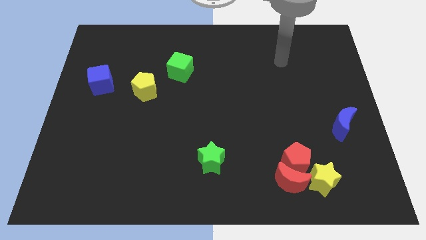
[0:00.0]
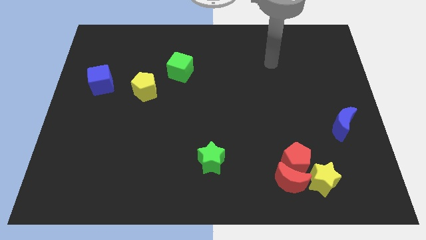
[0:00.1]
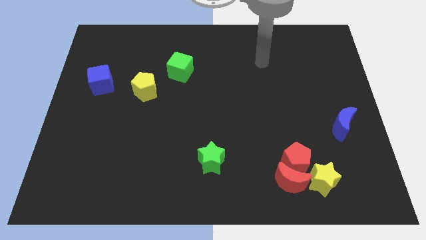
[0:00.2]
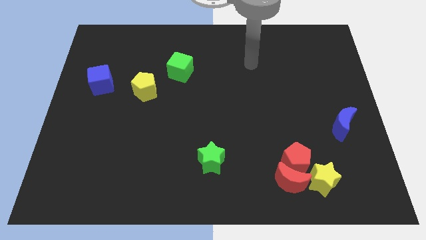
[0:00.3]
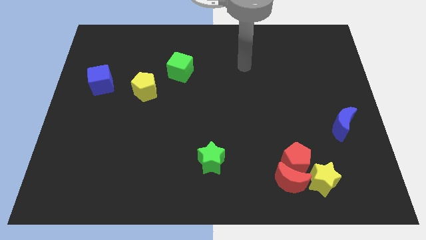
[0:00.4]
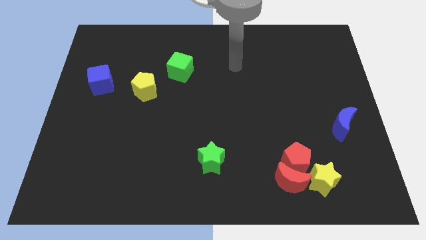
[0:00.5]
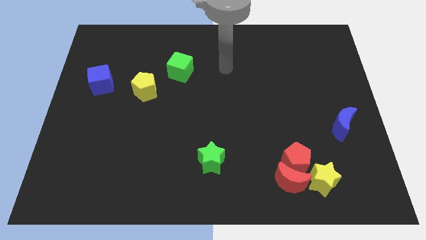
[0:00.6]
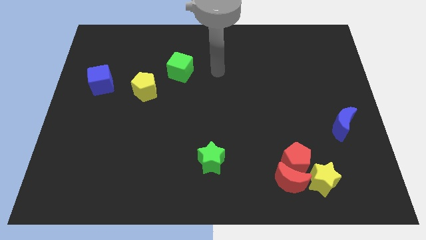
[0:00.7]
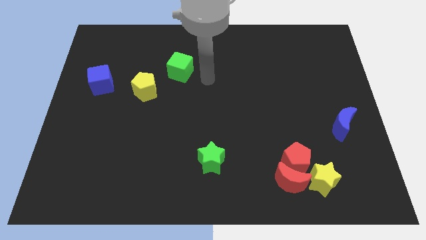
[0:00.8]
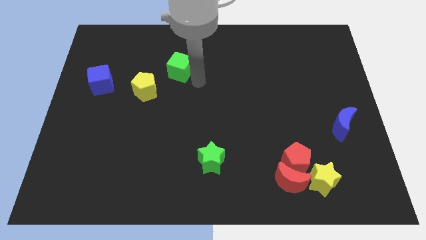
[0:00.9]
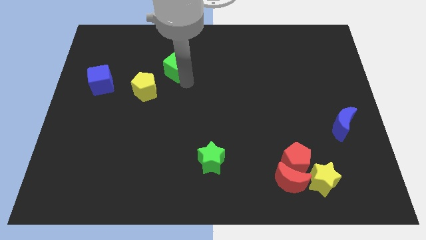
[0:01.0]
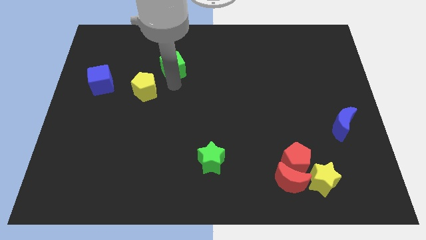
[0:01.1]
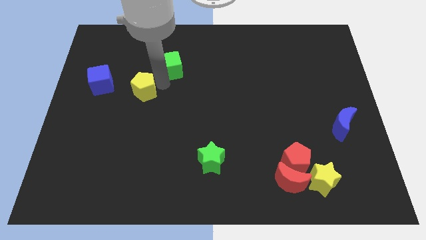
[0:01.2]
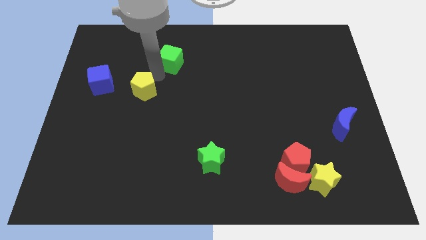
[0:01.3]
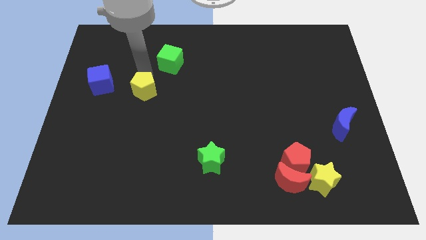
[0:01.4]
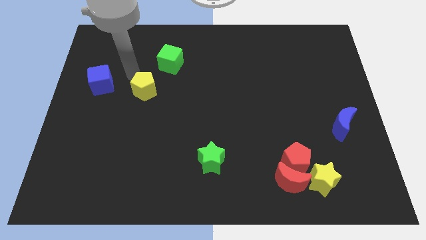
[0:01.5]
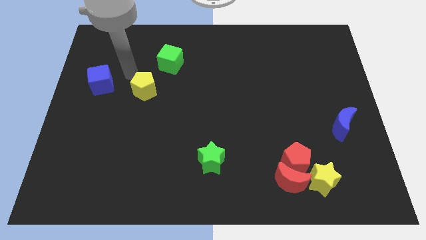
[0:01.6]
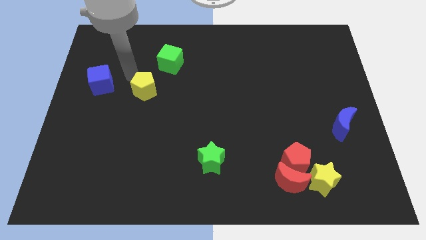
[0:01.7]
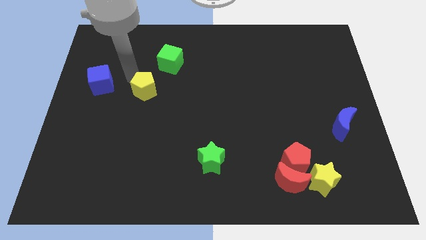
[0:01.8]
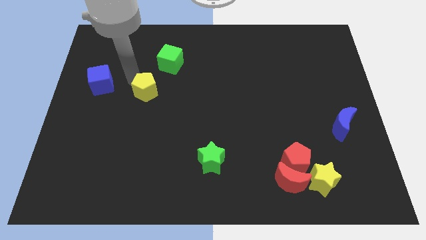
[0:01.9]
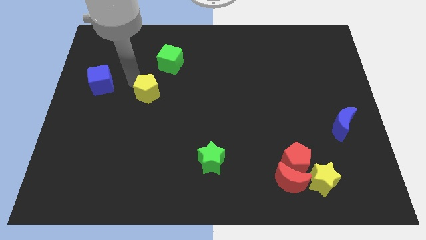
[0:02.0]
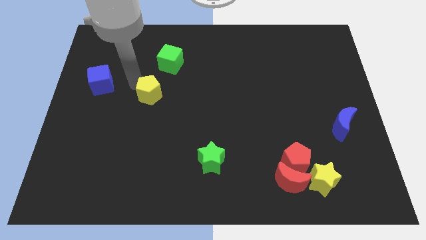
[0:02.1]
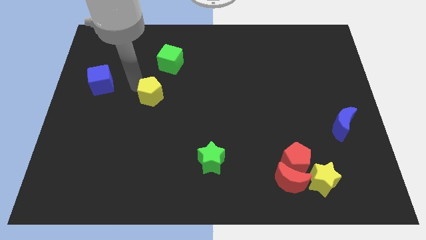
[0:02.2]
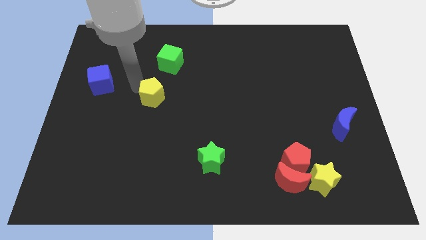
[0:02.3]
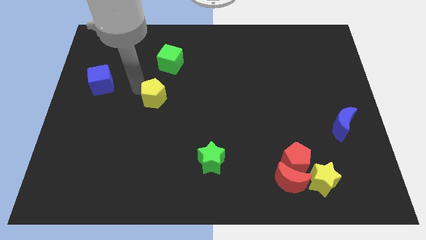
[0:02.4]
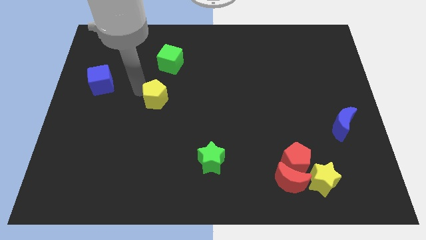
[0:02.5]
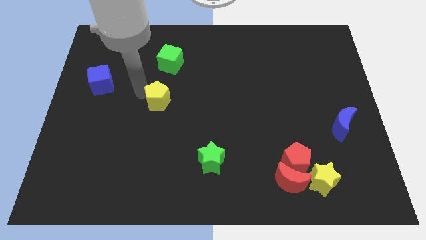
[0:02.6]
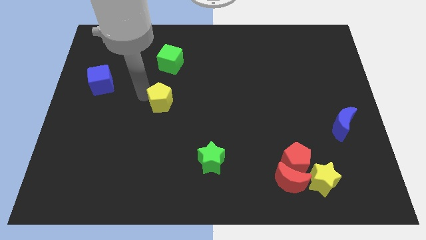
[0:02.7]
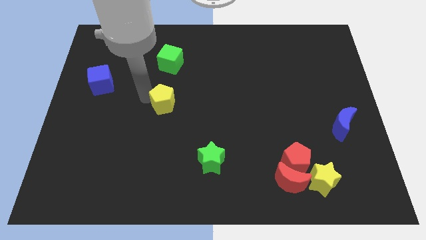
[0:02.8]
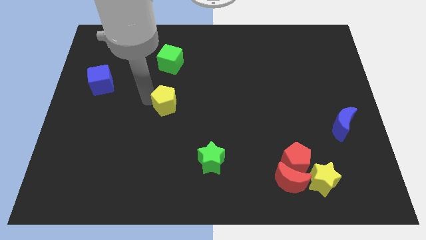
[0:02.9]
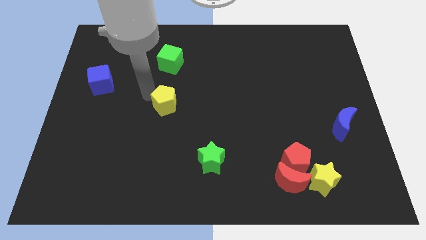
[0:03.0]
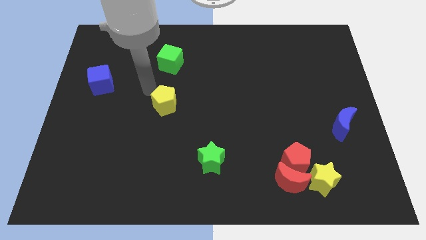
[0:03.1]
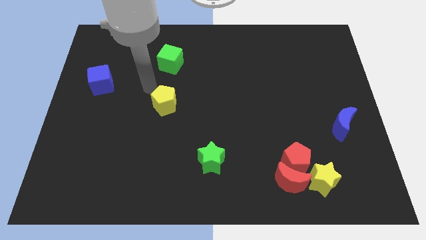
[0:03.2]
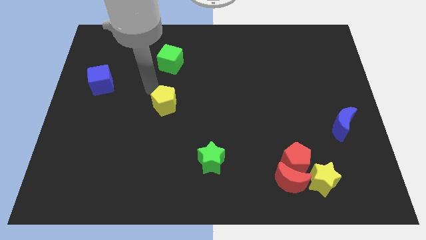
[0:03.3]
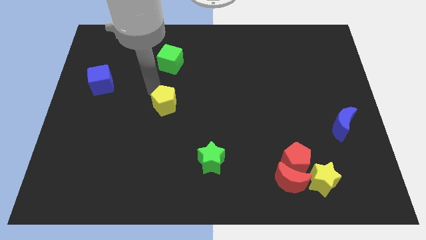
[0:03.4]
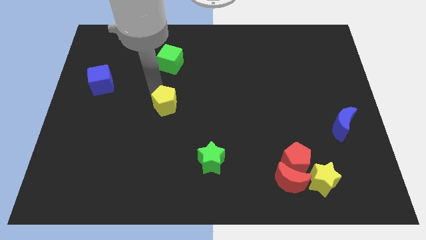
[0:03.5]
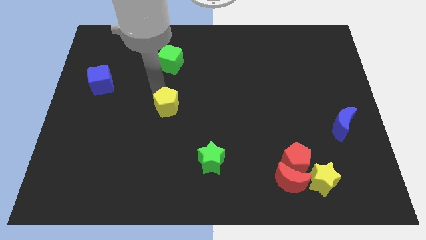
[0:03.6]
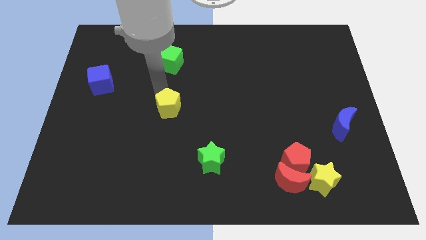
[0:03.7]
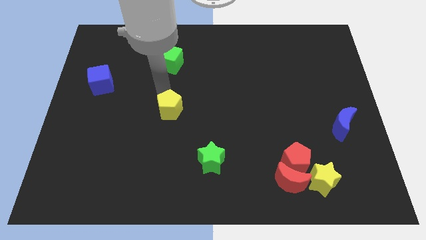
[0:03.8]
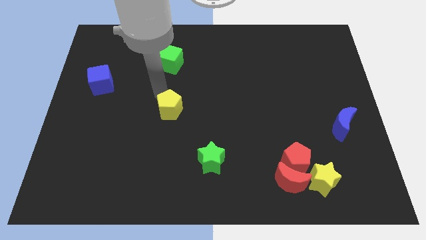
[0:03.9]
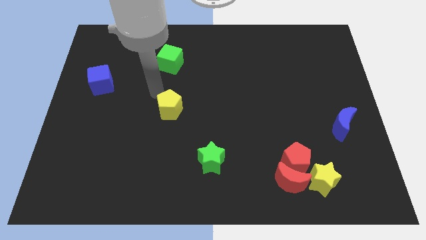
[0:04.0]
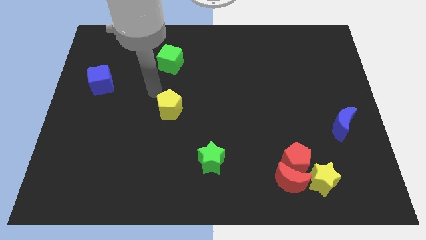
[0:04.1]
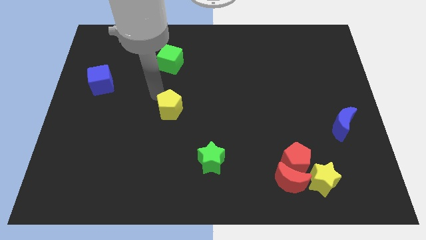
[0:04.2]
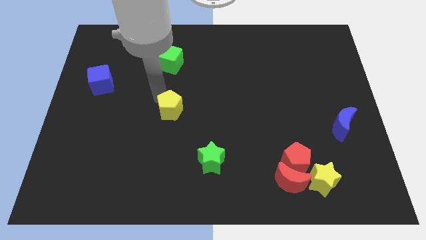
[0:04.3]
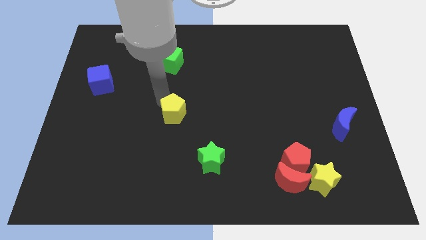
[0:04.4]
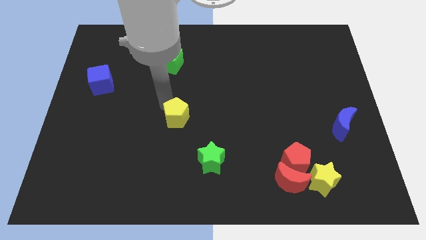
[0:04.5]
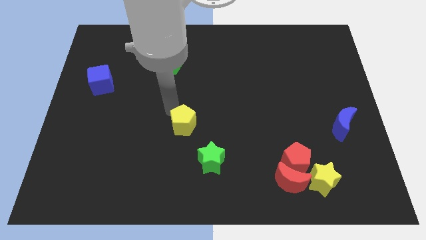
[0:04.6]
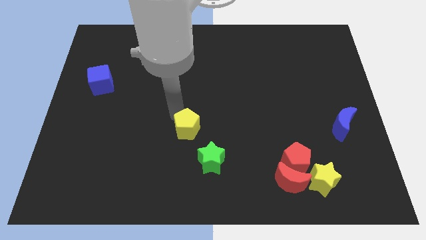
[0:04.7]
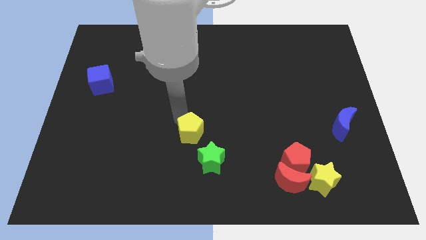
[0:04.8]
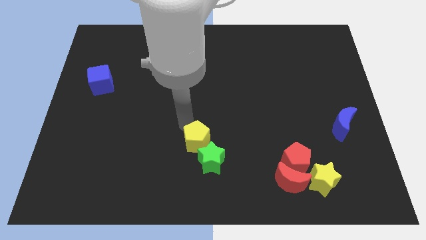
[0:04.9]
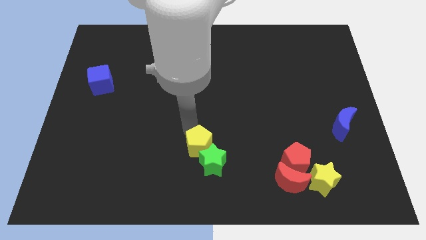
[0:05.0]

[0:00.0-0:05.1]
push the yellow pentagon to the green star
